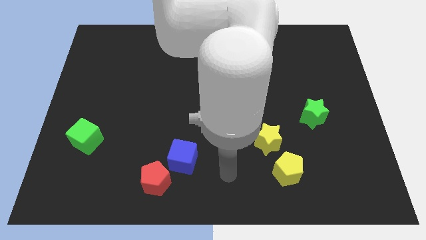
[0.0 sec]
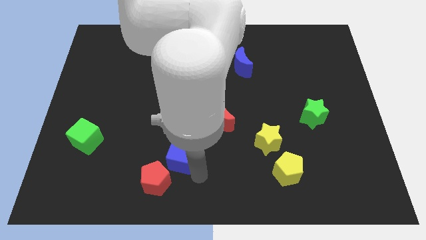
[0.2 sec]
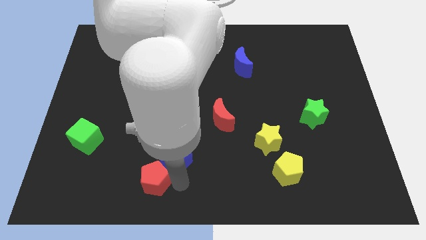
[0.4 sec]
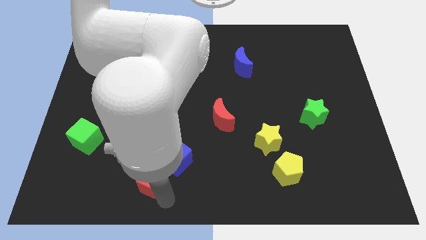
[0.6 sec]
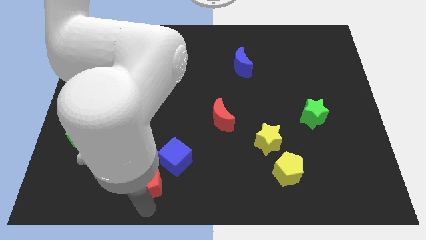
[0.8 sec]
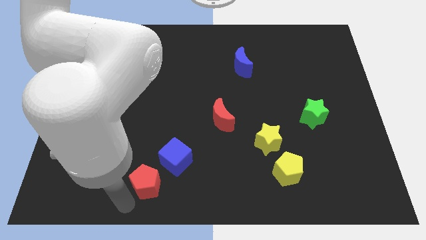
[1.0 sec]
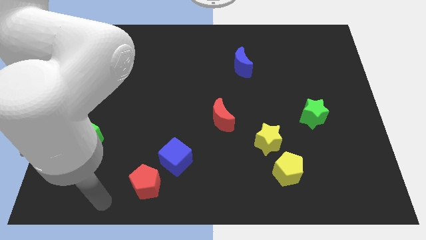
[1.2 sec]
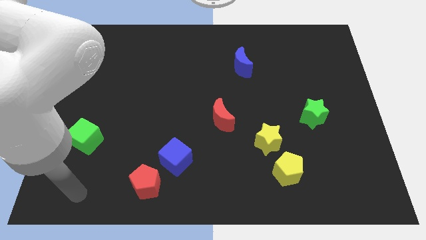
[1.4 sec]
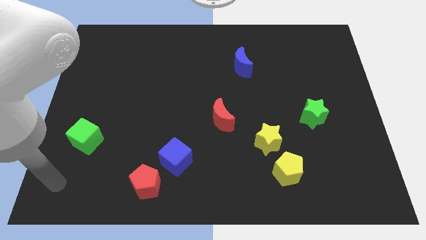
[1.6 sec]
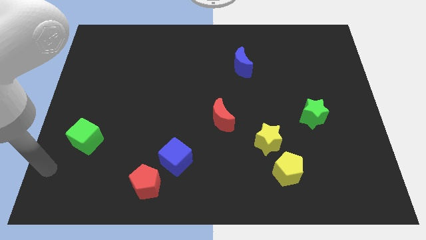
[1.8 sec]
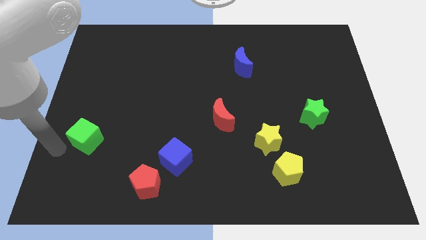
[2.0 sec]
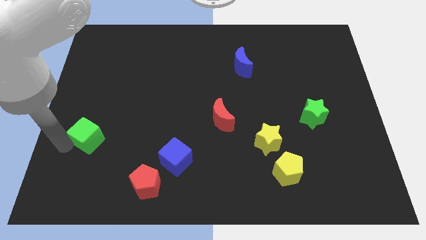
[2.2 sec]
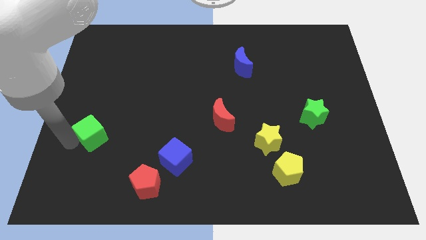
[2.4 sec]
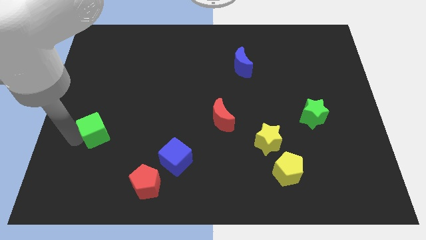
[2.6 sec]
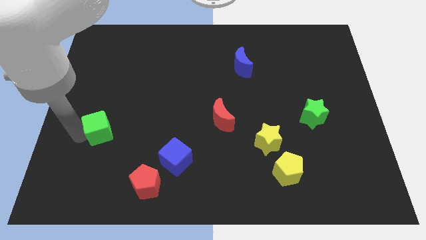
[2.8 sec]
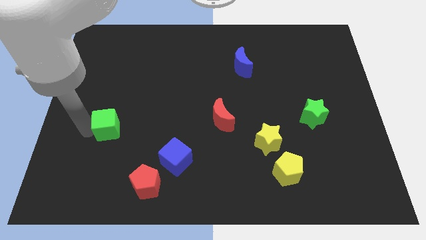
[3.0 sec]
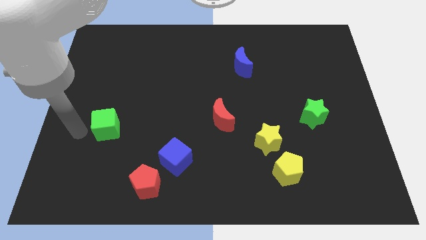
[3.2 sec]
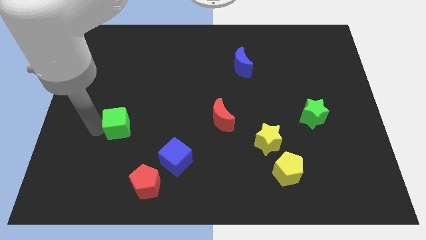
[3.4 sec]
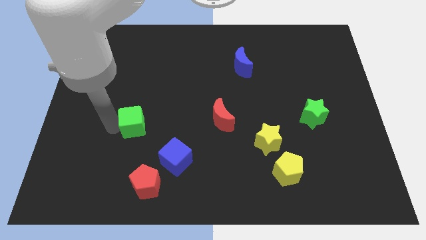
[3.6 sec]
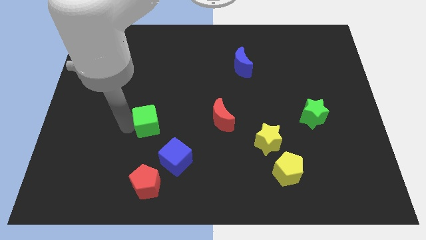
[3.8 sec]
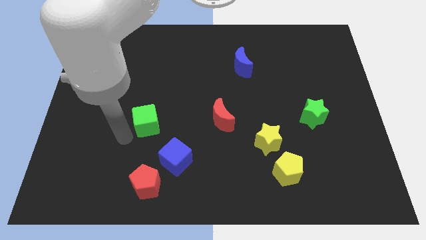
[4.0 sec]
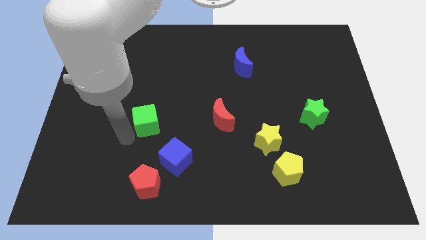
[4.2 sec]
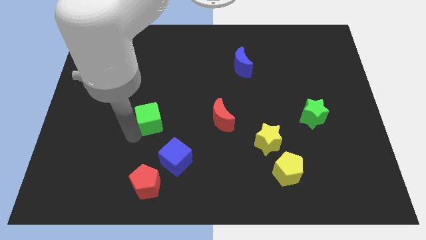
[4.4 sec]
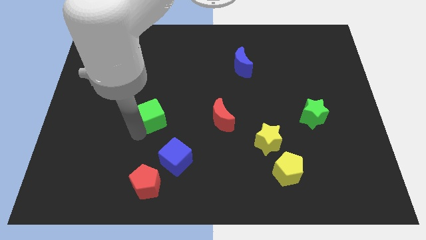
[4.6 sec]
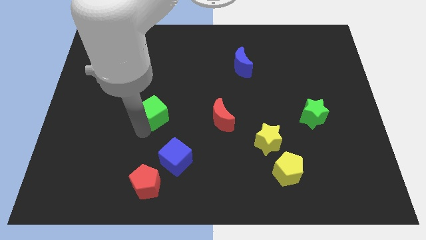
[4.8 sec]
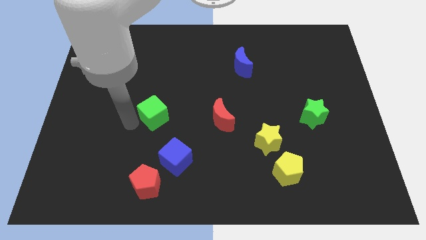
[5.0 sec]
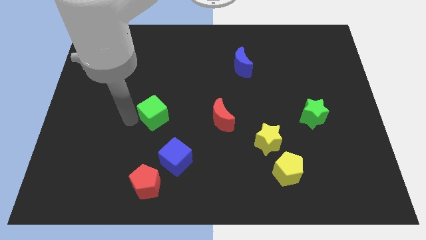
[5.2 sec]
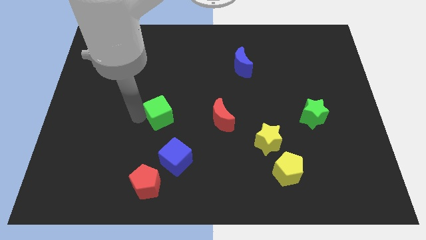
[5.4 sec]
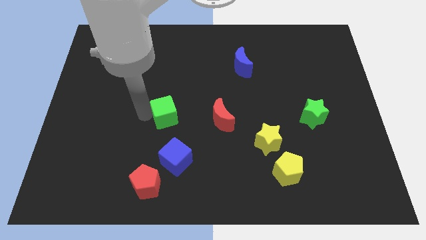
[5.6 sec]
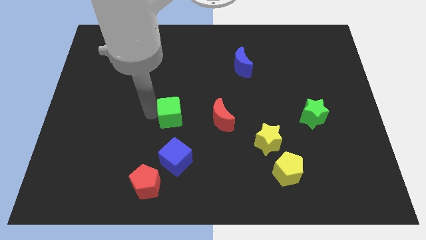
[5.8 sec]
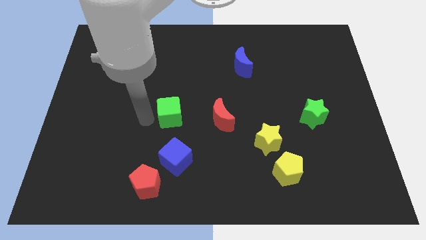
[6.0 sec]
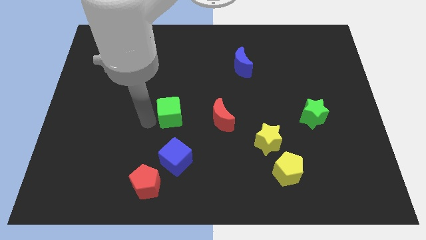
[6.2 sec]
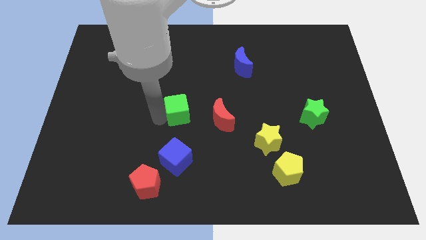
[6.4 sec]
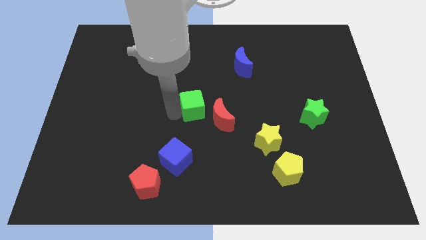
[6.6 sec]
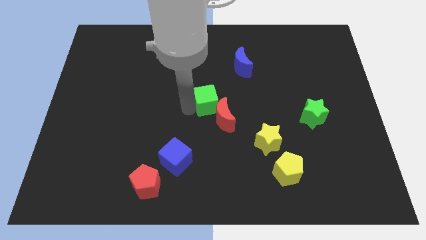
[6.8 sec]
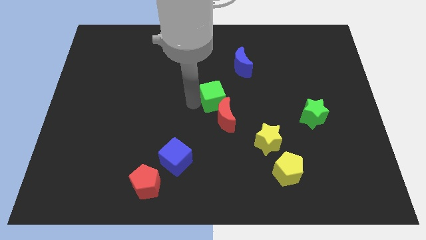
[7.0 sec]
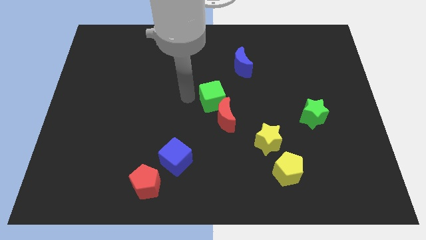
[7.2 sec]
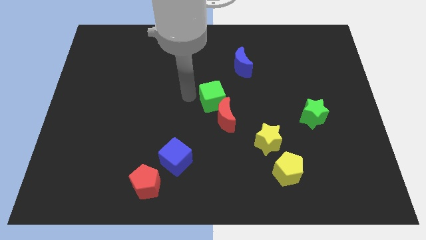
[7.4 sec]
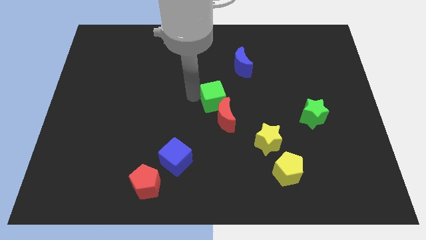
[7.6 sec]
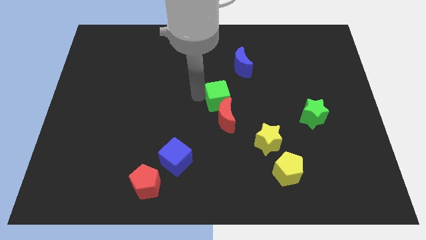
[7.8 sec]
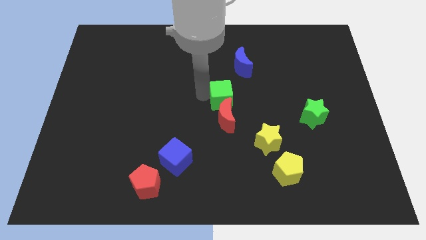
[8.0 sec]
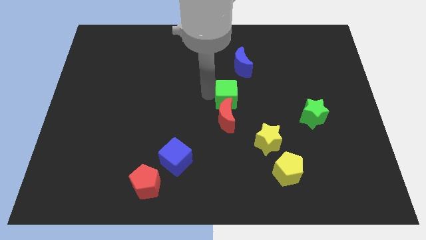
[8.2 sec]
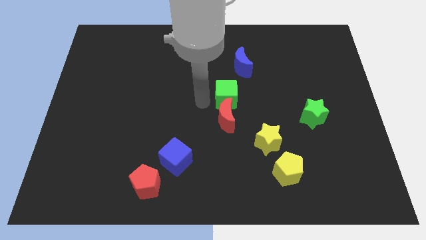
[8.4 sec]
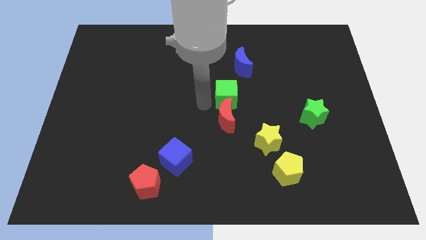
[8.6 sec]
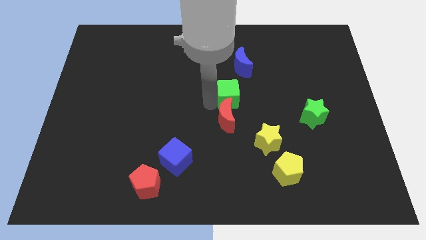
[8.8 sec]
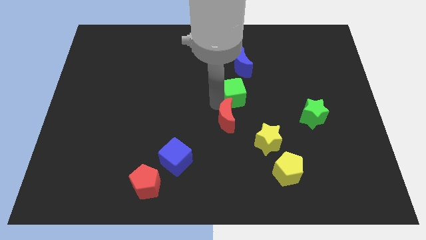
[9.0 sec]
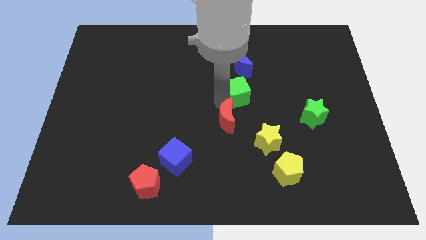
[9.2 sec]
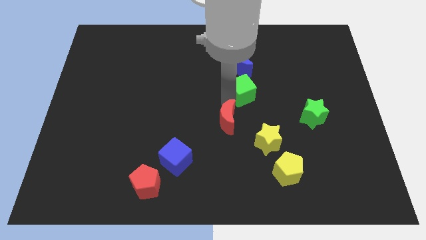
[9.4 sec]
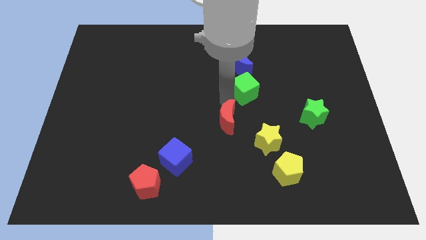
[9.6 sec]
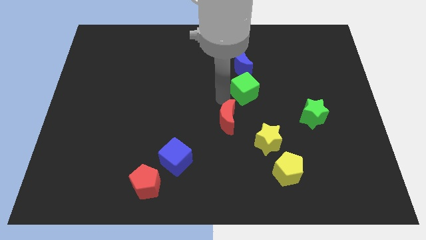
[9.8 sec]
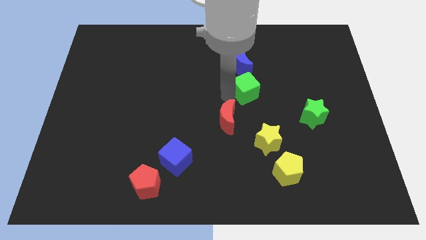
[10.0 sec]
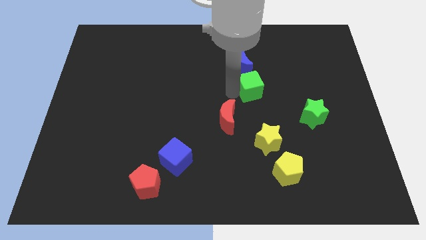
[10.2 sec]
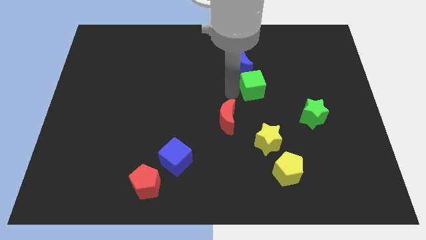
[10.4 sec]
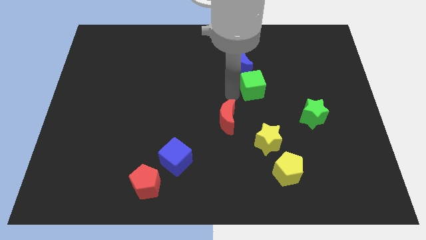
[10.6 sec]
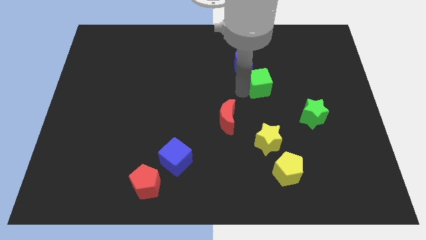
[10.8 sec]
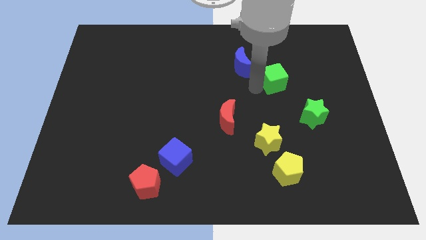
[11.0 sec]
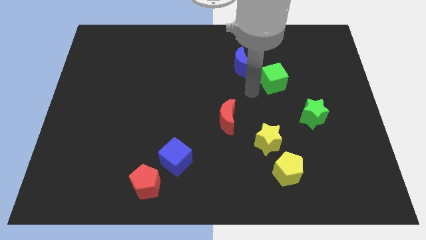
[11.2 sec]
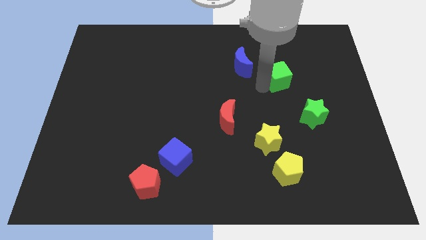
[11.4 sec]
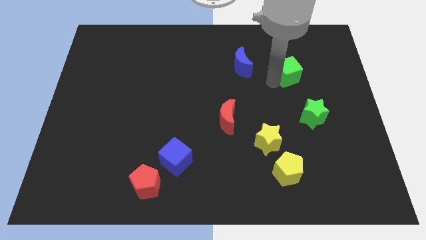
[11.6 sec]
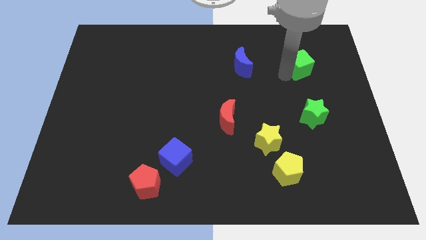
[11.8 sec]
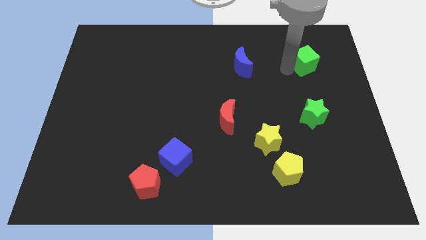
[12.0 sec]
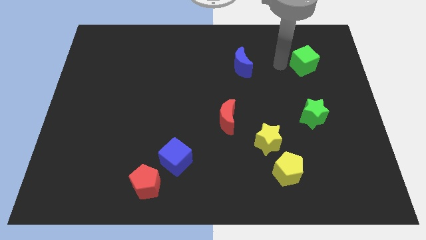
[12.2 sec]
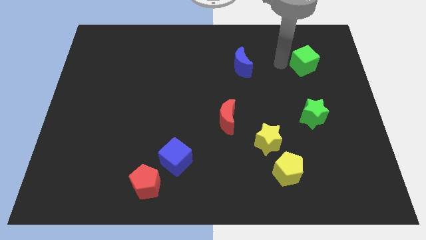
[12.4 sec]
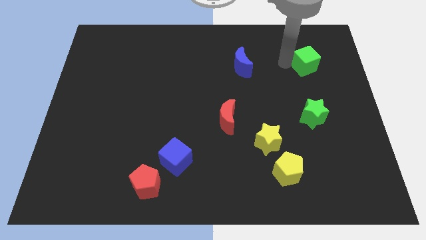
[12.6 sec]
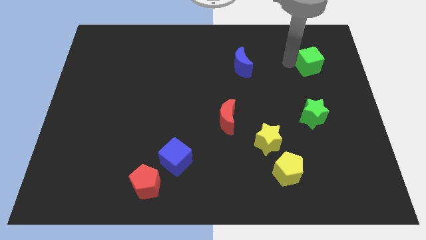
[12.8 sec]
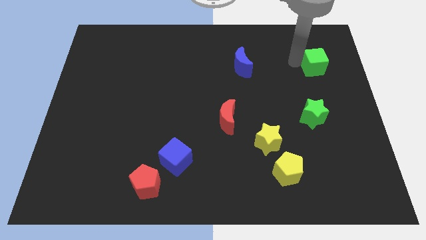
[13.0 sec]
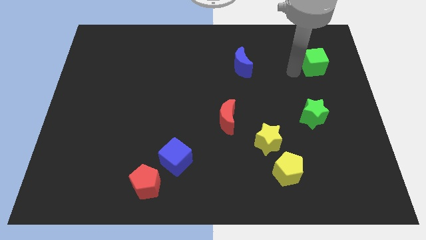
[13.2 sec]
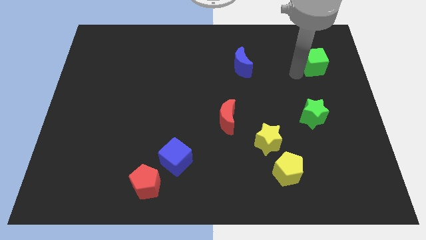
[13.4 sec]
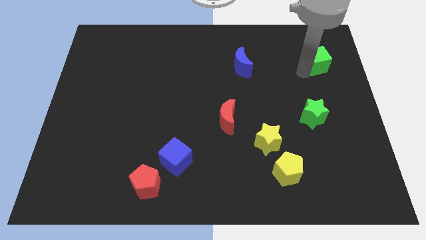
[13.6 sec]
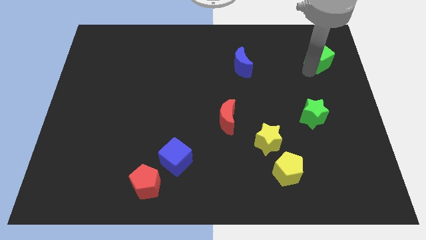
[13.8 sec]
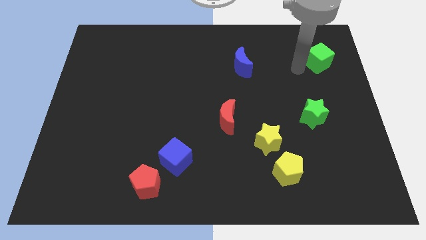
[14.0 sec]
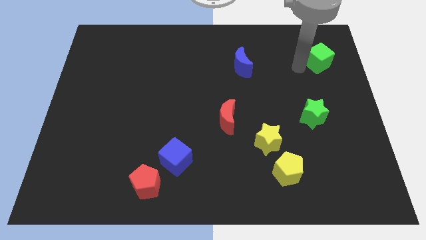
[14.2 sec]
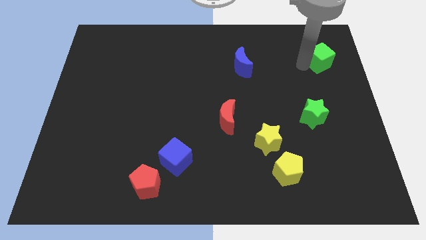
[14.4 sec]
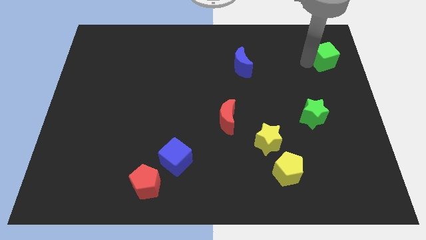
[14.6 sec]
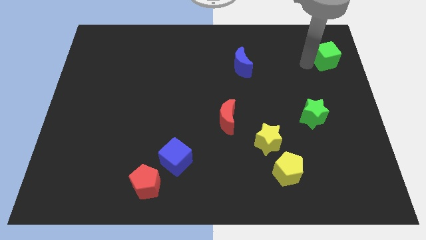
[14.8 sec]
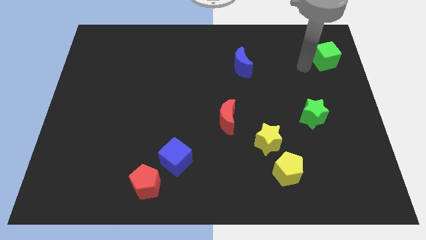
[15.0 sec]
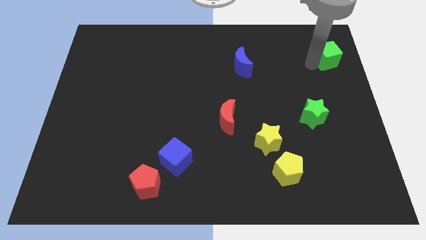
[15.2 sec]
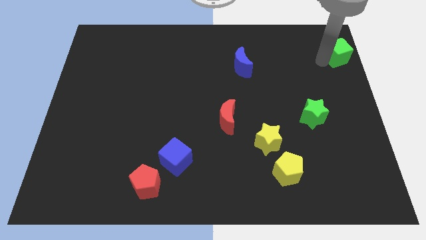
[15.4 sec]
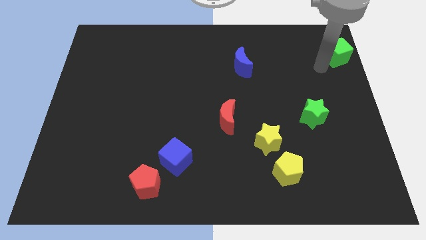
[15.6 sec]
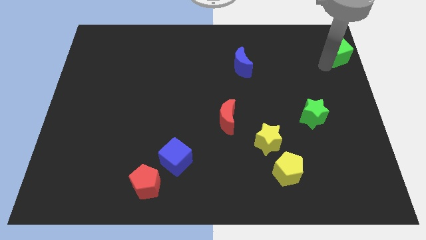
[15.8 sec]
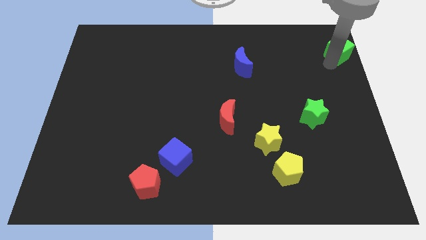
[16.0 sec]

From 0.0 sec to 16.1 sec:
move the green cube to the top right corner
